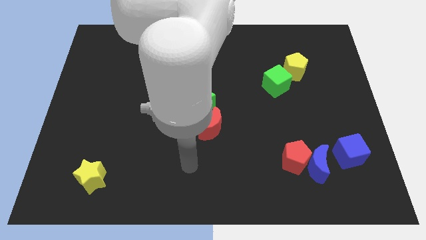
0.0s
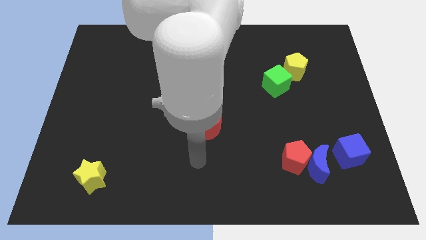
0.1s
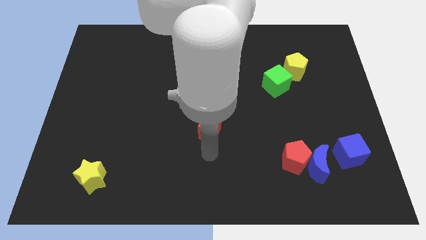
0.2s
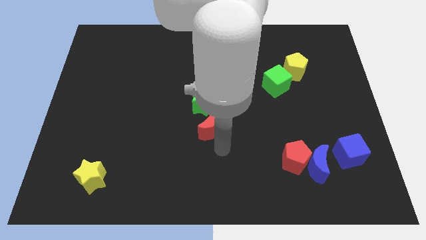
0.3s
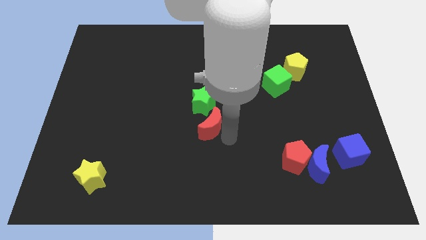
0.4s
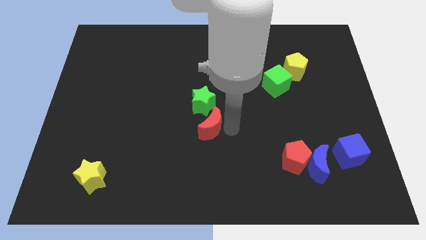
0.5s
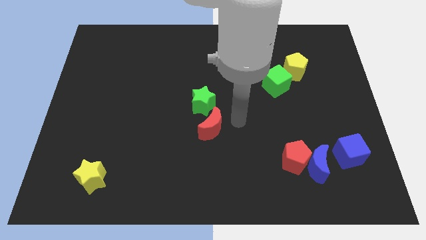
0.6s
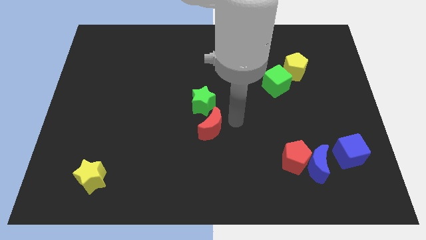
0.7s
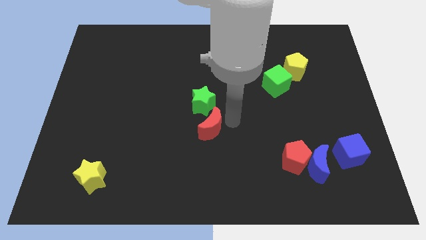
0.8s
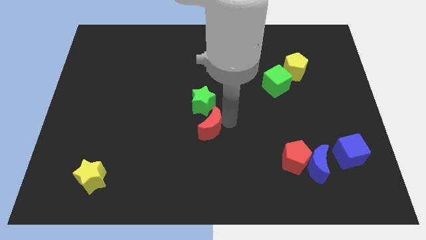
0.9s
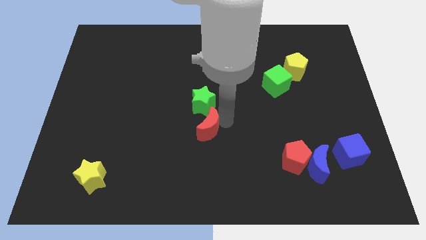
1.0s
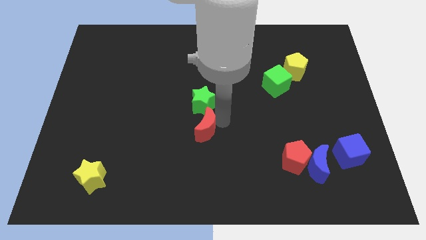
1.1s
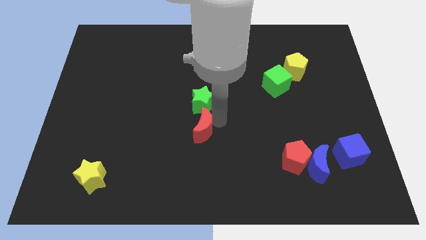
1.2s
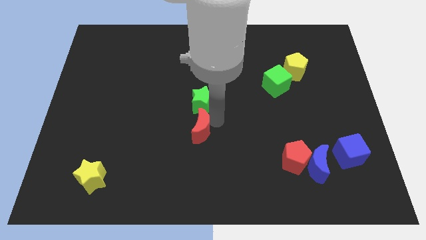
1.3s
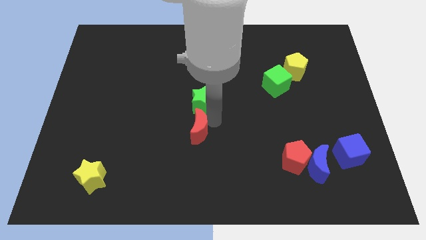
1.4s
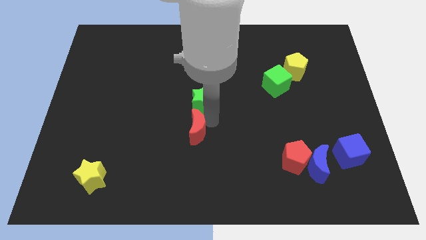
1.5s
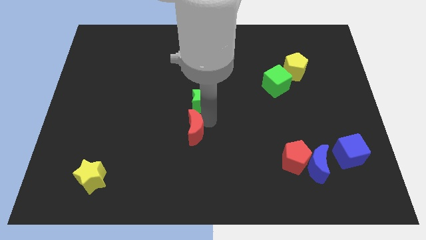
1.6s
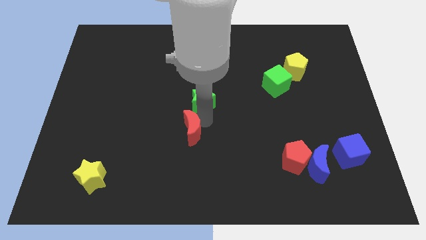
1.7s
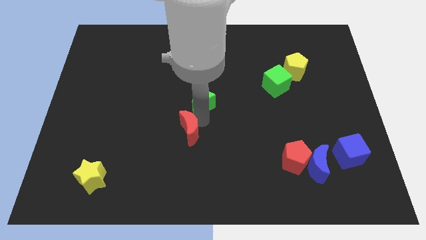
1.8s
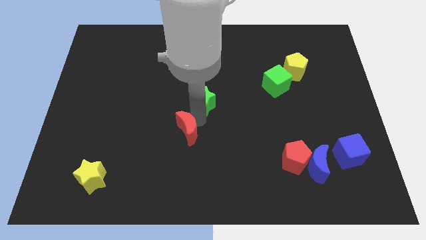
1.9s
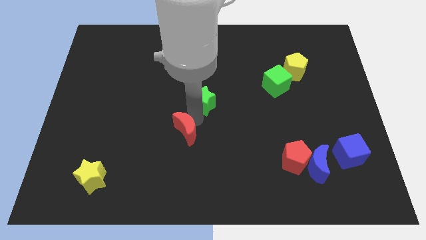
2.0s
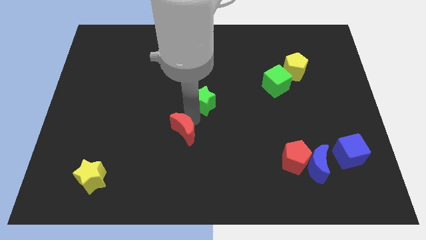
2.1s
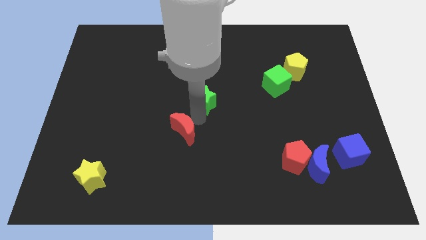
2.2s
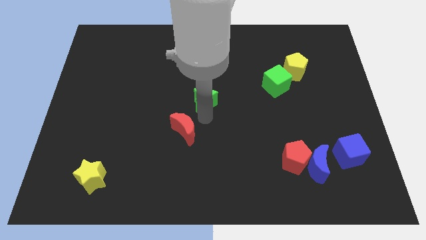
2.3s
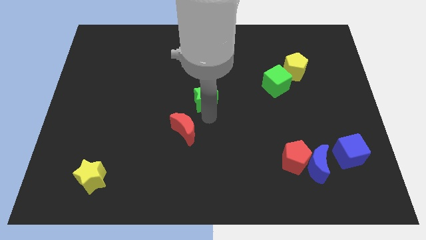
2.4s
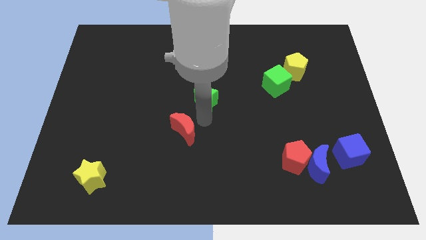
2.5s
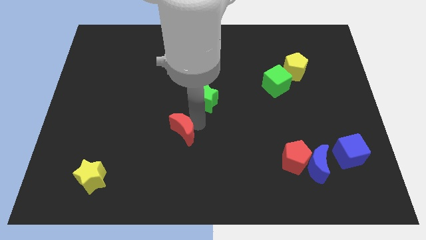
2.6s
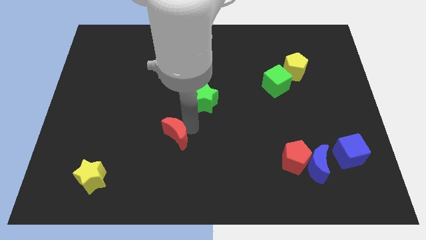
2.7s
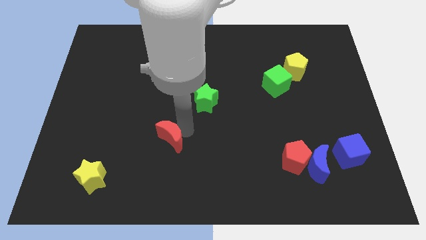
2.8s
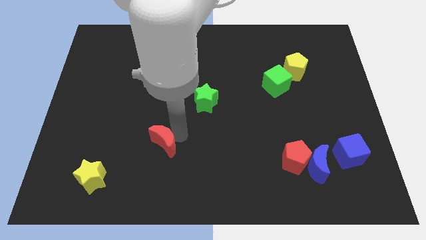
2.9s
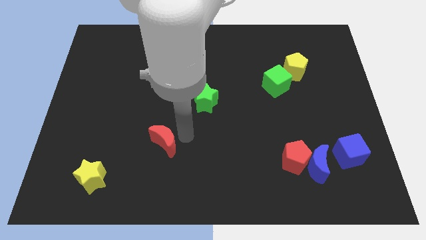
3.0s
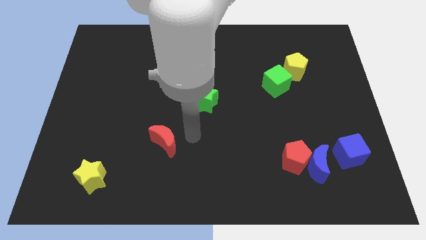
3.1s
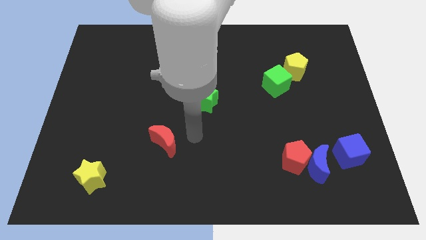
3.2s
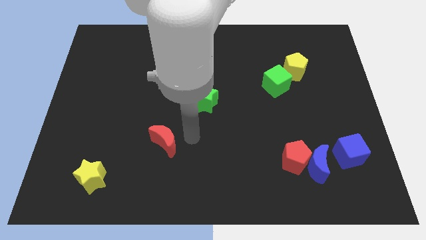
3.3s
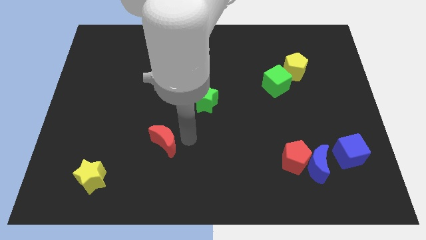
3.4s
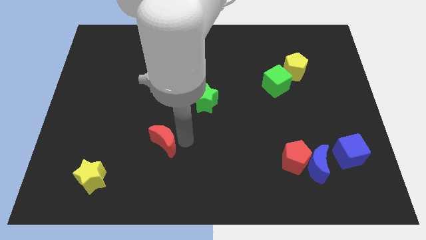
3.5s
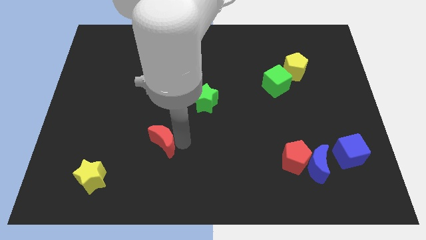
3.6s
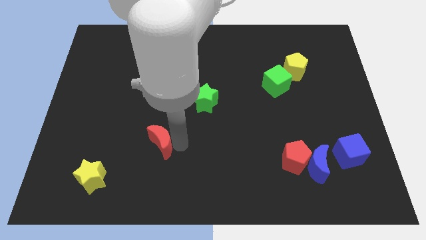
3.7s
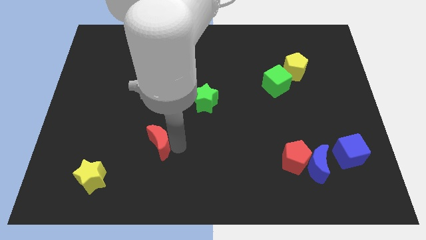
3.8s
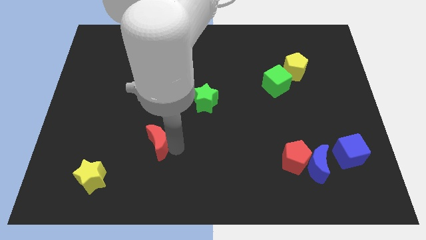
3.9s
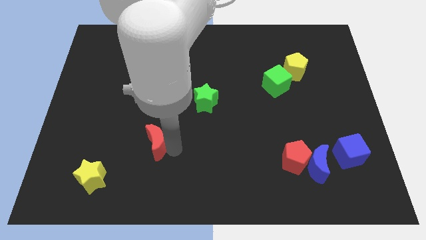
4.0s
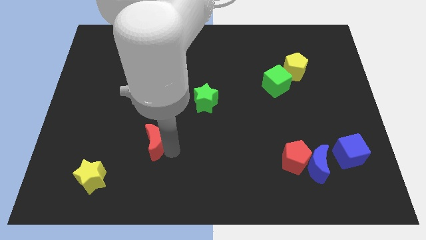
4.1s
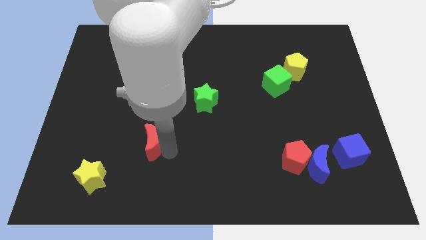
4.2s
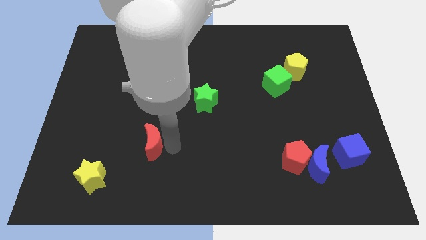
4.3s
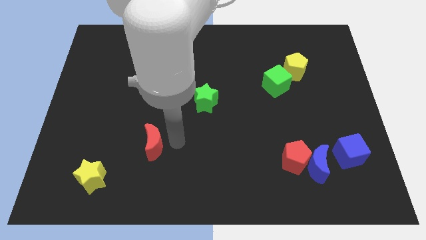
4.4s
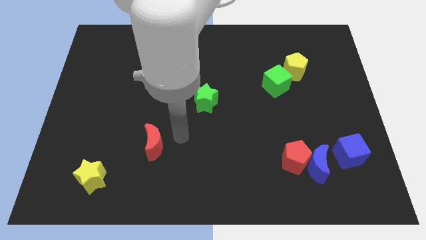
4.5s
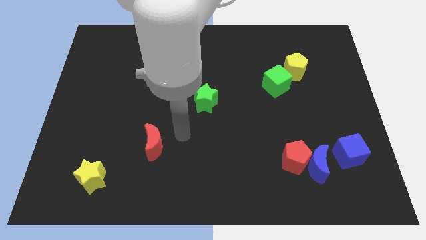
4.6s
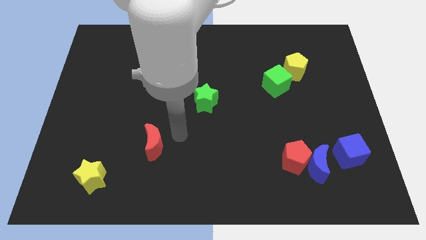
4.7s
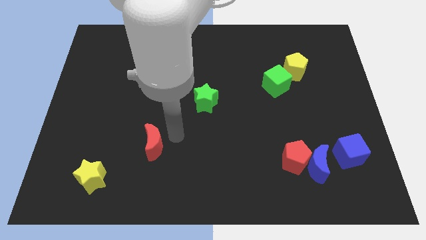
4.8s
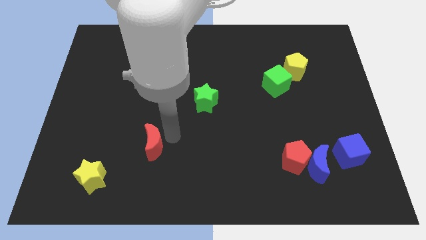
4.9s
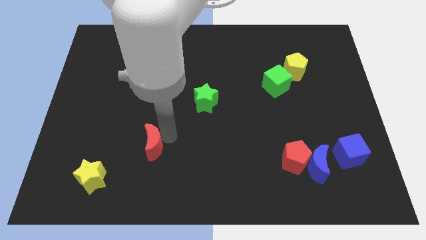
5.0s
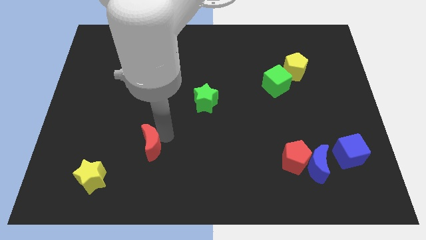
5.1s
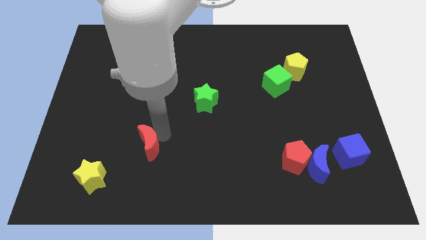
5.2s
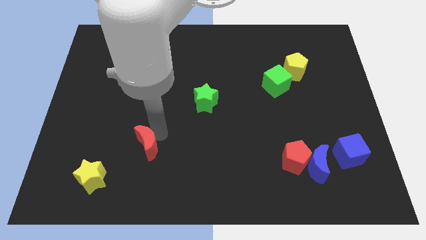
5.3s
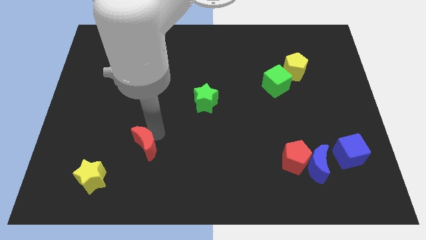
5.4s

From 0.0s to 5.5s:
push the red moon diagonally up and to the right of the yellow star

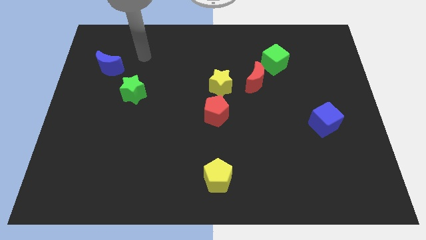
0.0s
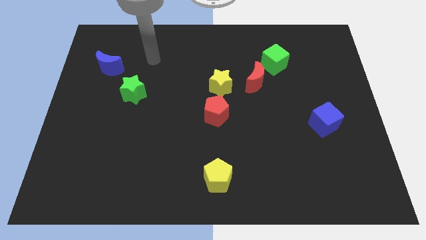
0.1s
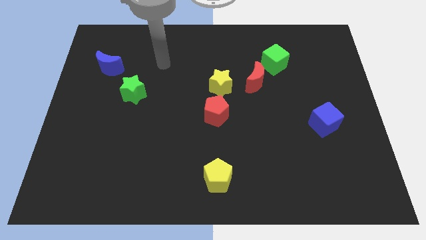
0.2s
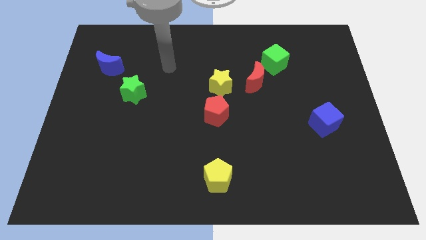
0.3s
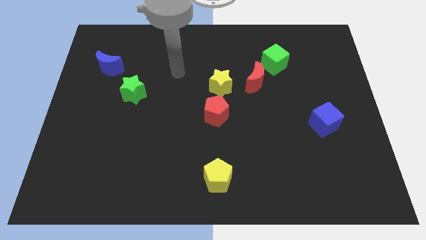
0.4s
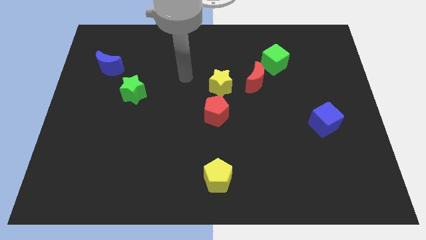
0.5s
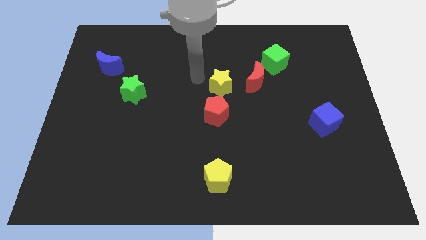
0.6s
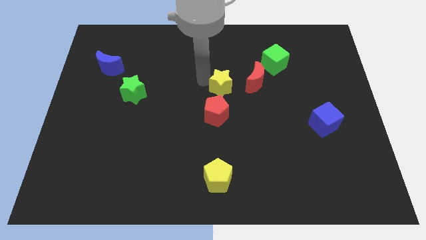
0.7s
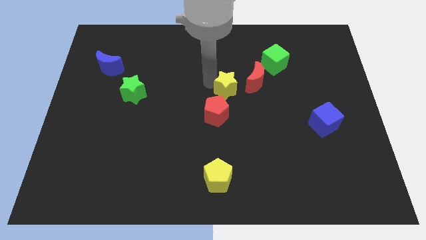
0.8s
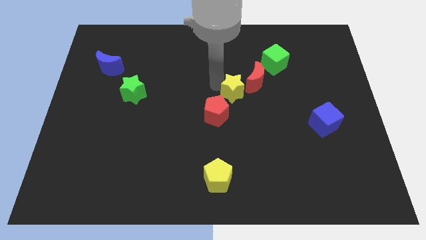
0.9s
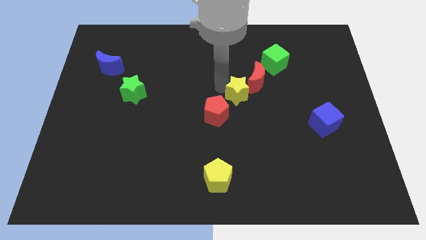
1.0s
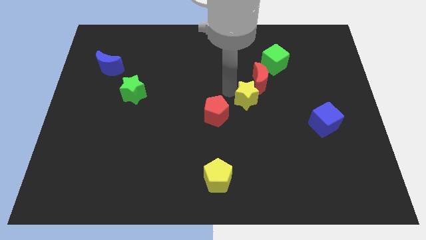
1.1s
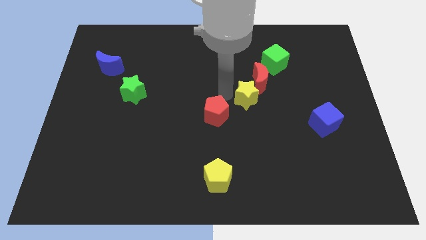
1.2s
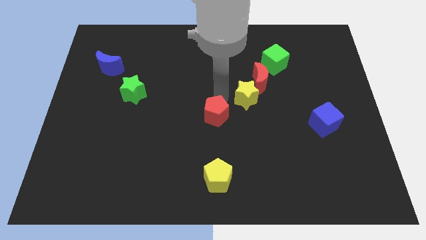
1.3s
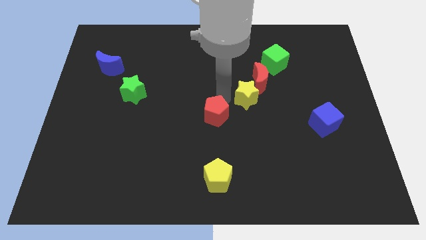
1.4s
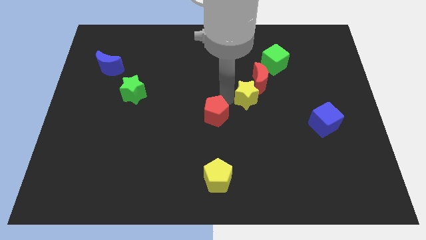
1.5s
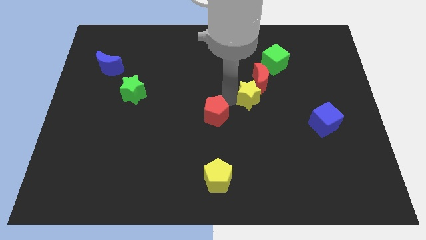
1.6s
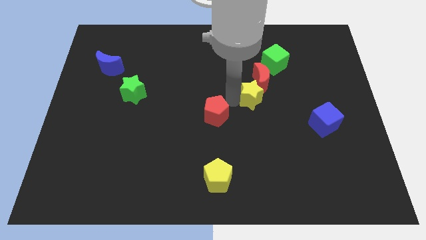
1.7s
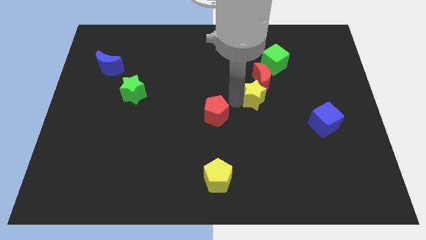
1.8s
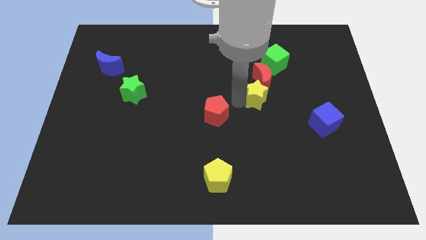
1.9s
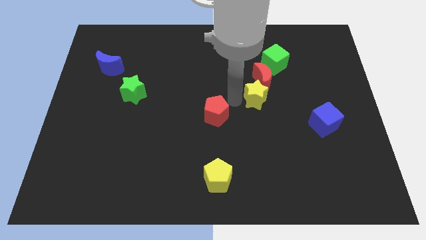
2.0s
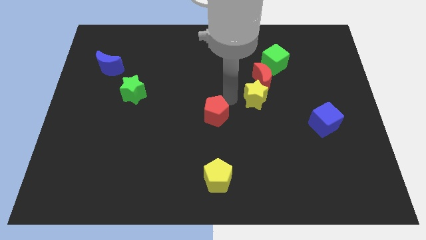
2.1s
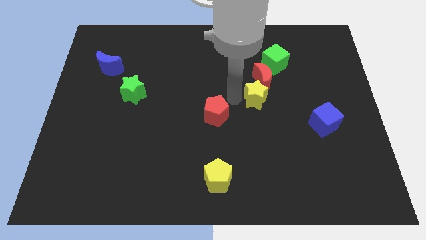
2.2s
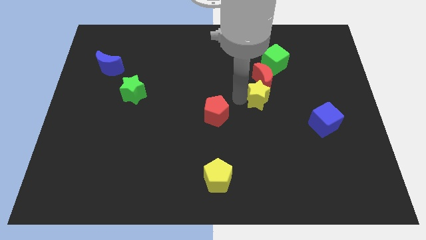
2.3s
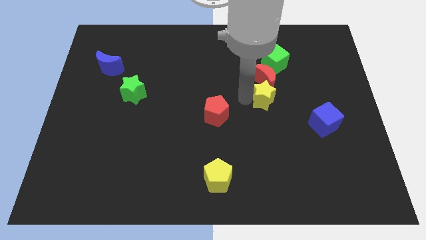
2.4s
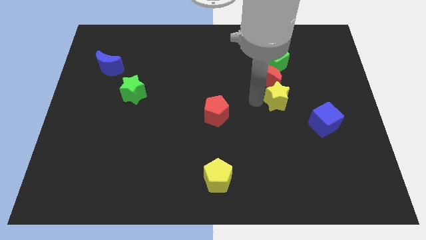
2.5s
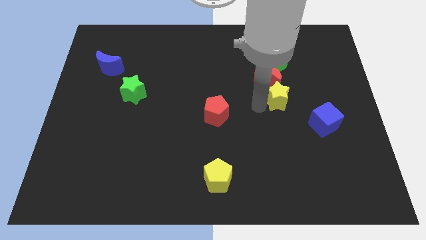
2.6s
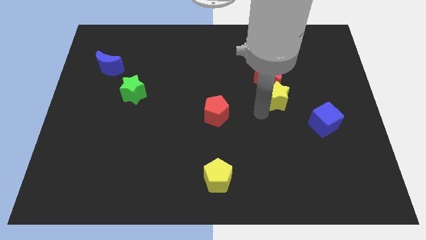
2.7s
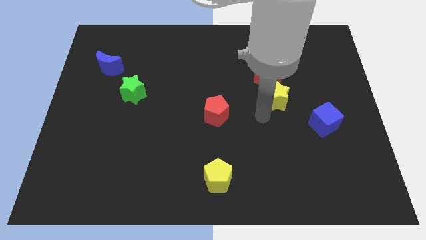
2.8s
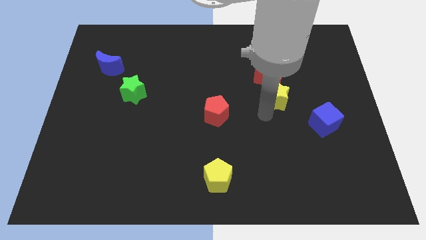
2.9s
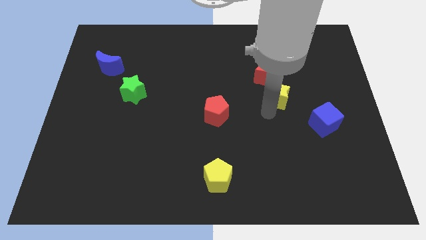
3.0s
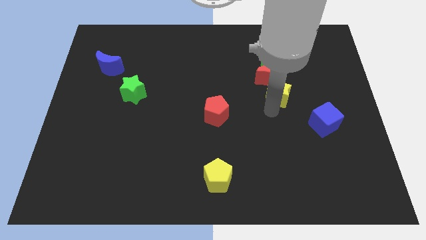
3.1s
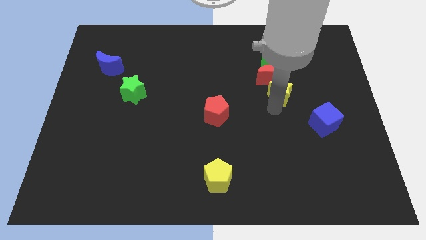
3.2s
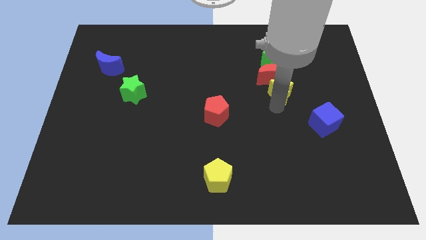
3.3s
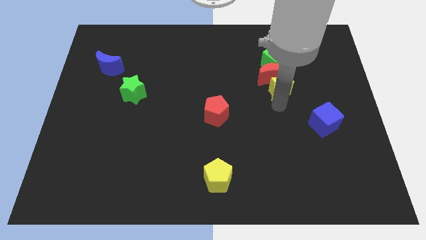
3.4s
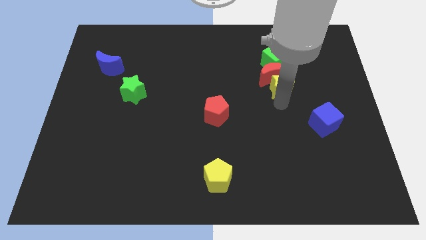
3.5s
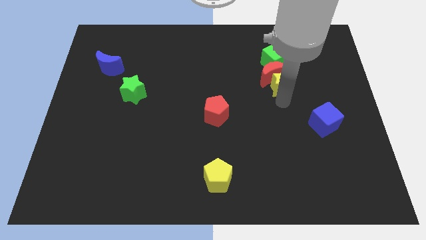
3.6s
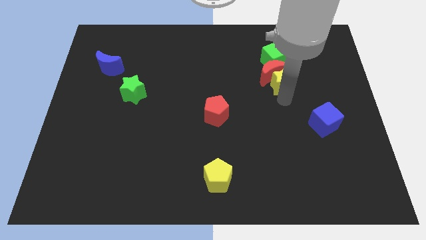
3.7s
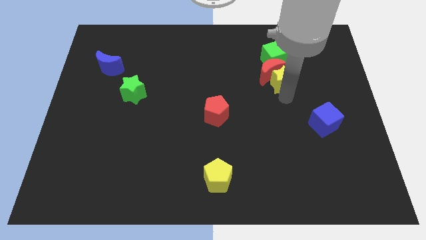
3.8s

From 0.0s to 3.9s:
put the yellow star to the bottom right of the green cube
